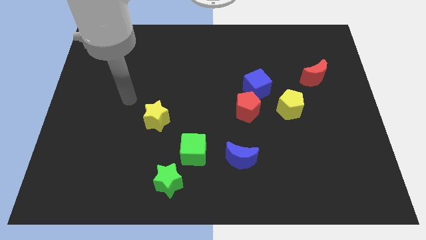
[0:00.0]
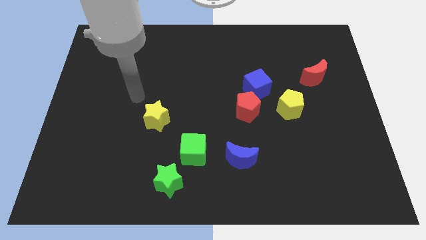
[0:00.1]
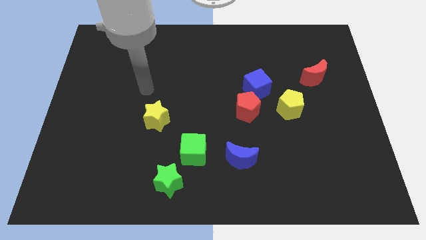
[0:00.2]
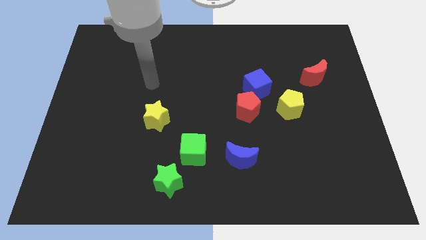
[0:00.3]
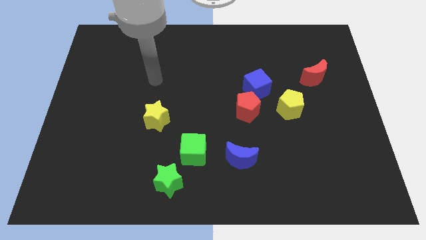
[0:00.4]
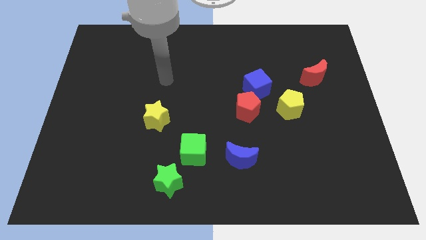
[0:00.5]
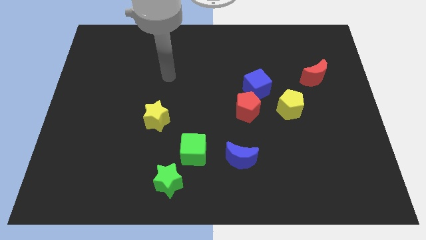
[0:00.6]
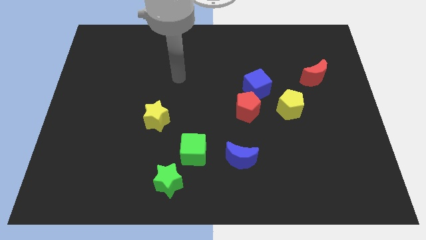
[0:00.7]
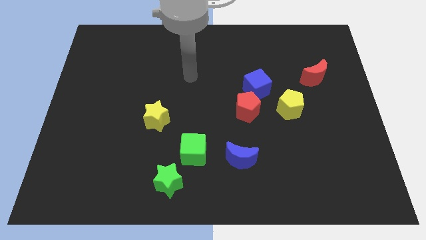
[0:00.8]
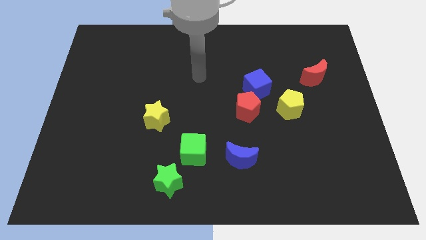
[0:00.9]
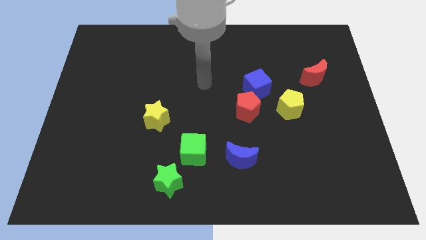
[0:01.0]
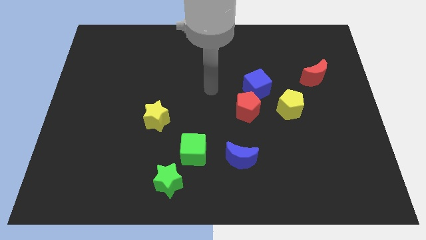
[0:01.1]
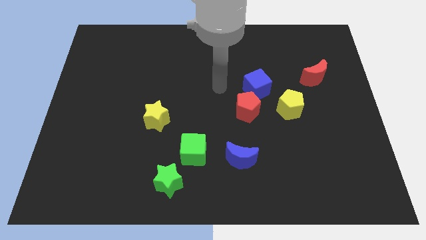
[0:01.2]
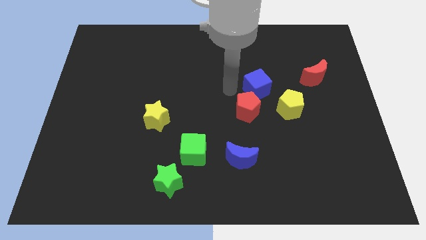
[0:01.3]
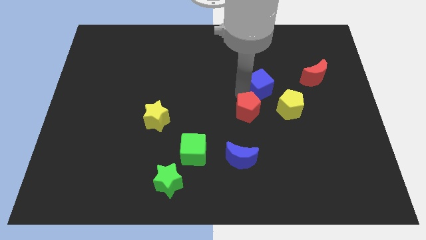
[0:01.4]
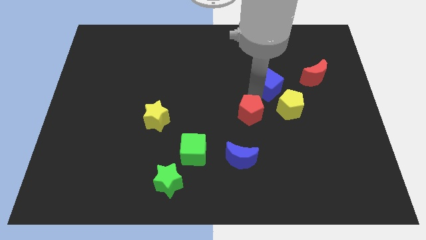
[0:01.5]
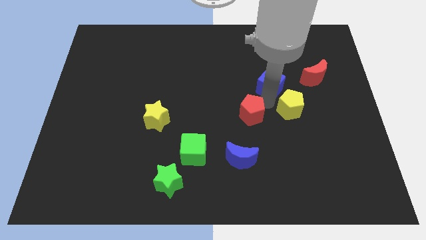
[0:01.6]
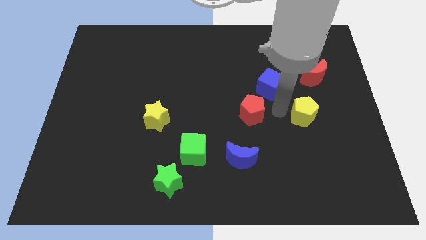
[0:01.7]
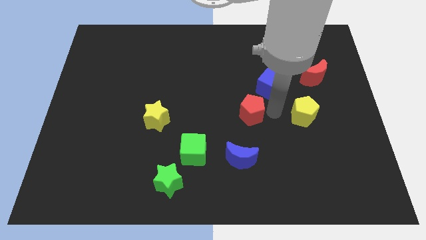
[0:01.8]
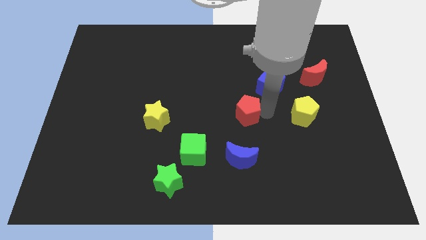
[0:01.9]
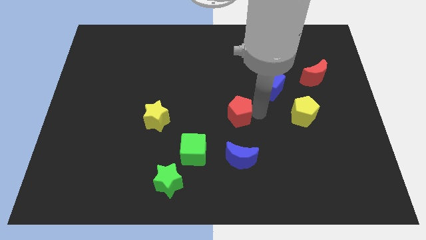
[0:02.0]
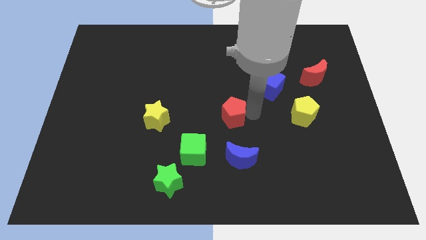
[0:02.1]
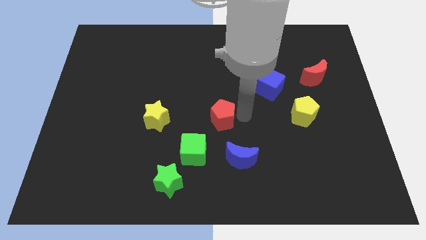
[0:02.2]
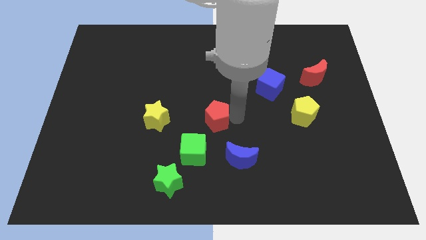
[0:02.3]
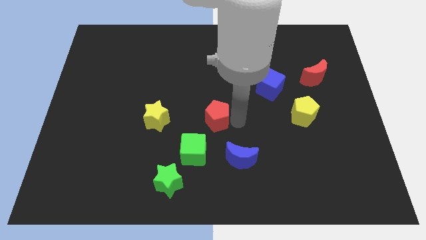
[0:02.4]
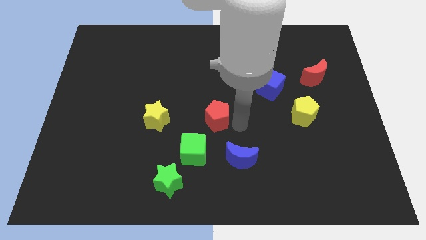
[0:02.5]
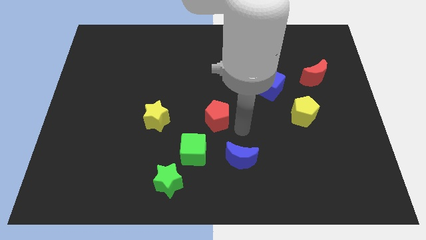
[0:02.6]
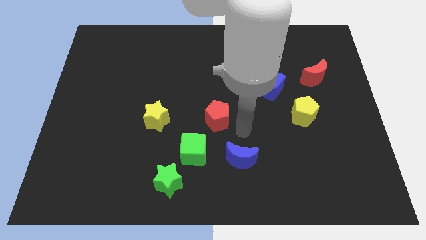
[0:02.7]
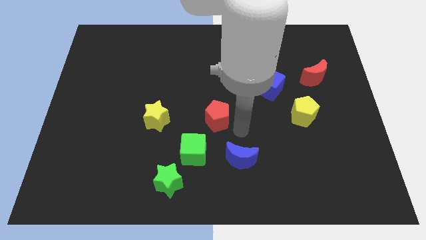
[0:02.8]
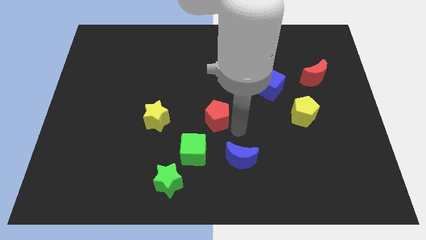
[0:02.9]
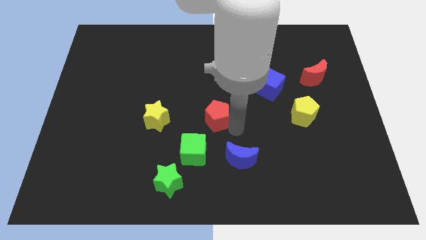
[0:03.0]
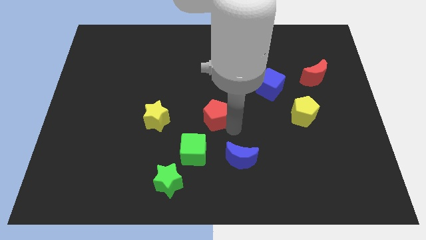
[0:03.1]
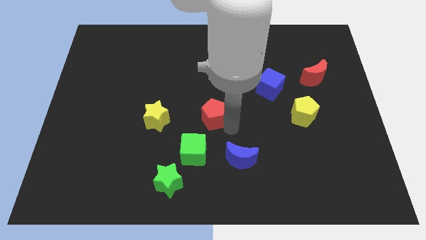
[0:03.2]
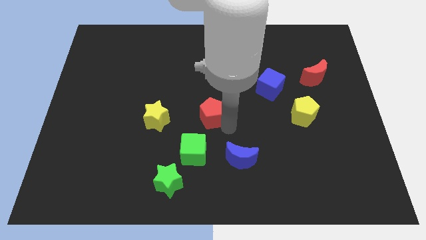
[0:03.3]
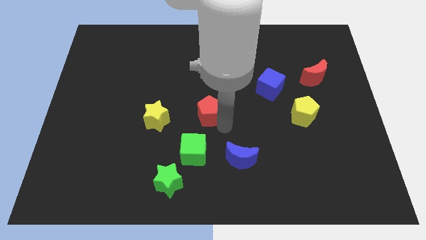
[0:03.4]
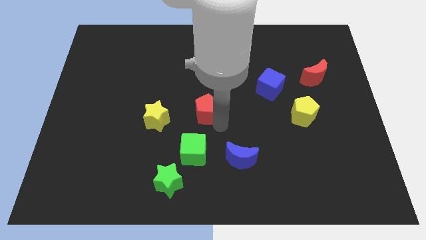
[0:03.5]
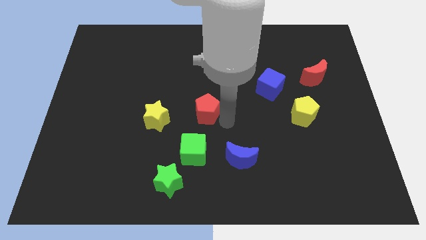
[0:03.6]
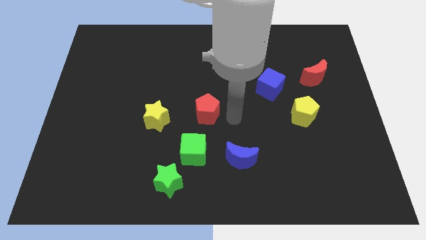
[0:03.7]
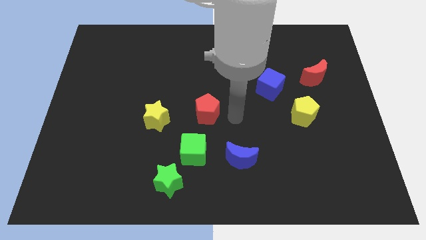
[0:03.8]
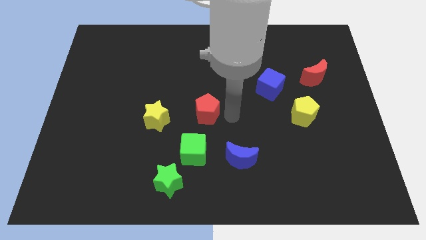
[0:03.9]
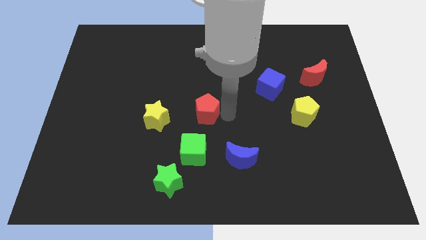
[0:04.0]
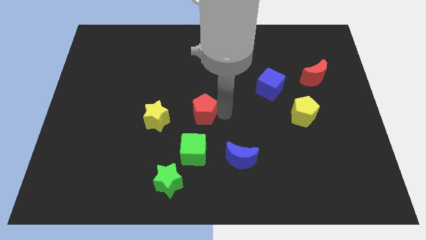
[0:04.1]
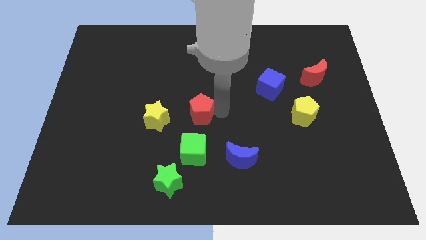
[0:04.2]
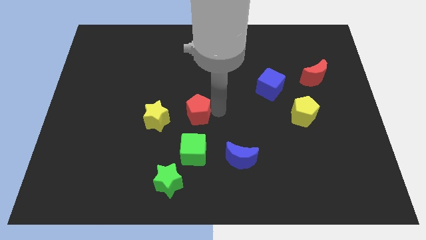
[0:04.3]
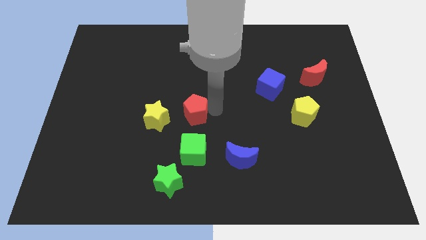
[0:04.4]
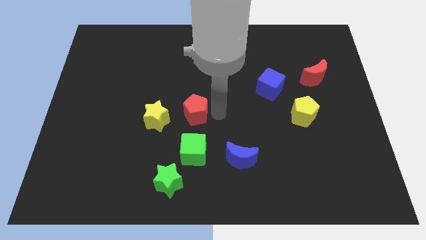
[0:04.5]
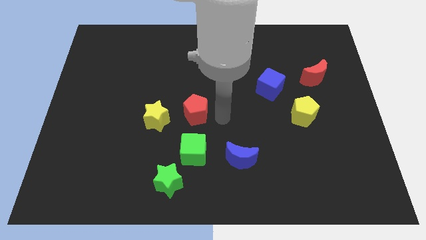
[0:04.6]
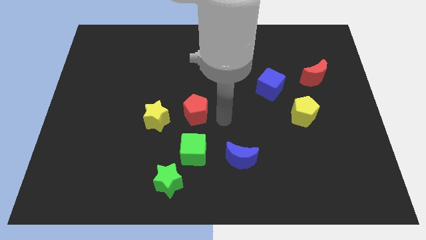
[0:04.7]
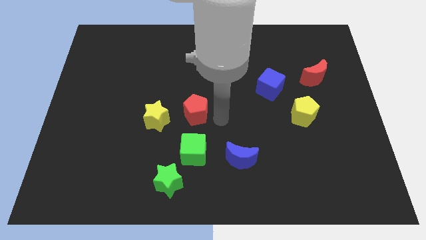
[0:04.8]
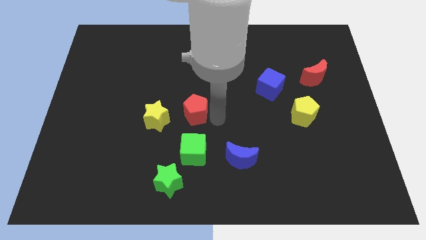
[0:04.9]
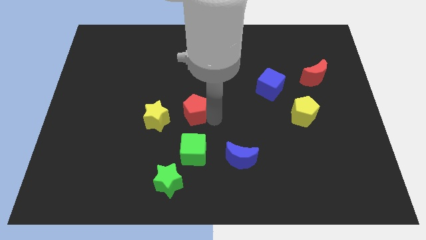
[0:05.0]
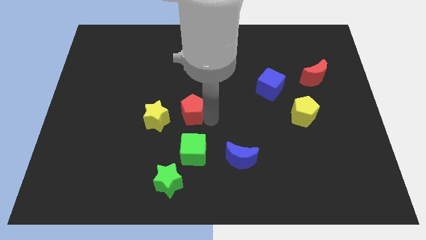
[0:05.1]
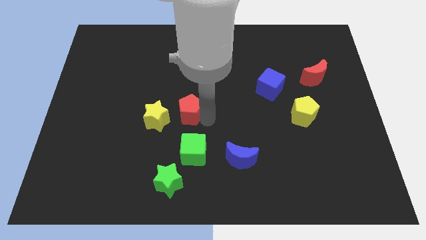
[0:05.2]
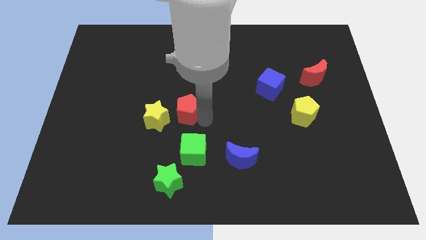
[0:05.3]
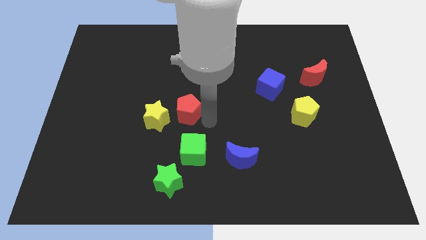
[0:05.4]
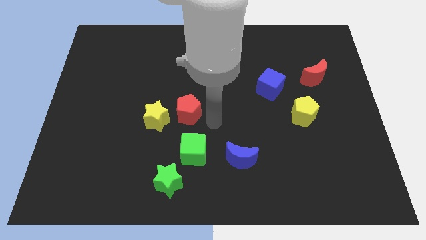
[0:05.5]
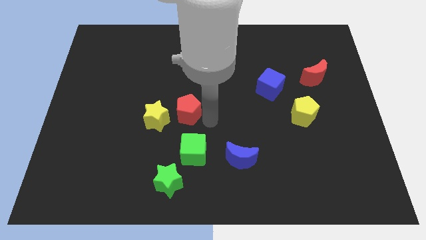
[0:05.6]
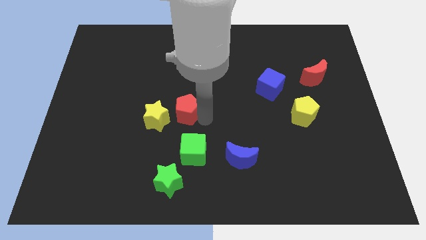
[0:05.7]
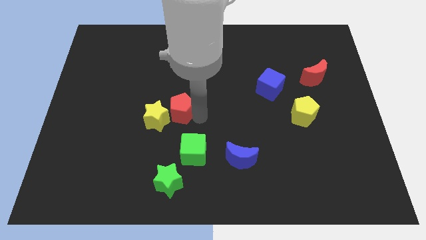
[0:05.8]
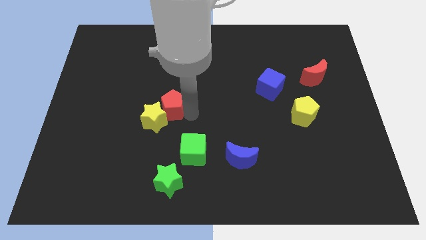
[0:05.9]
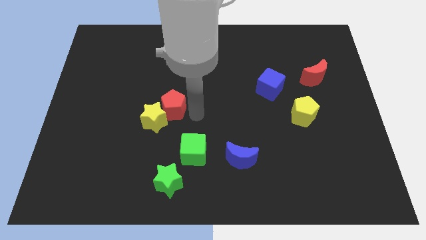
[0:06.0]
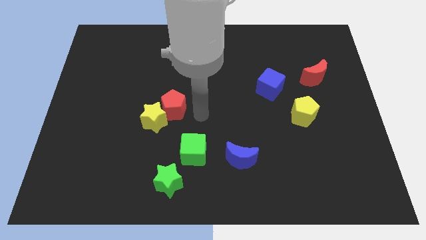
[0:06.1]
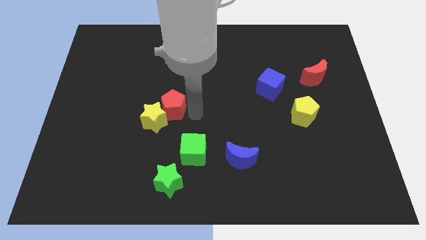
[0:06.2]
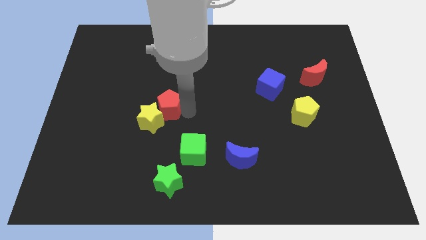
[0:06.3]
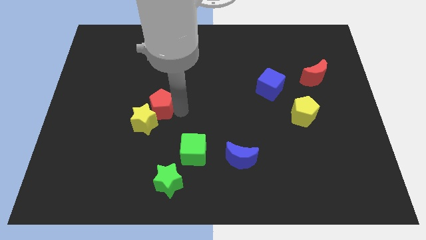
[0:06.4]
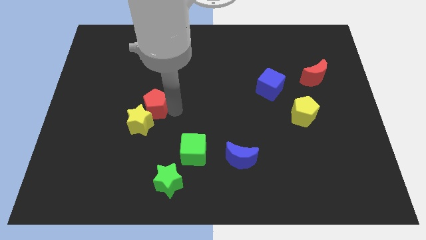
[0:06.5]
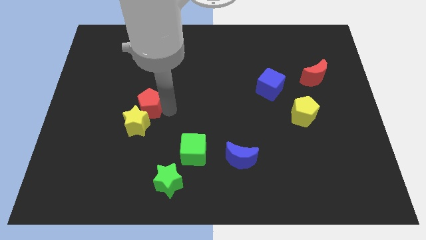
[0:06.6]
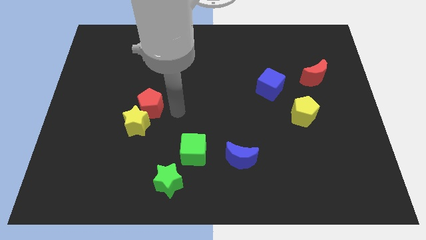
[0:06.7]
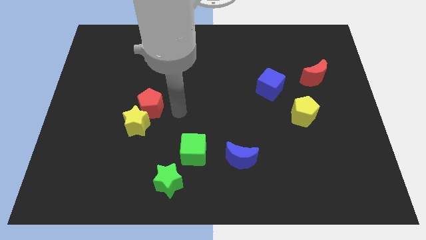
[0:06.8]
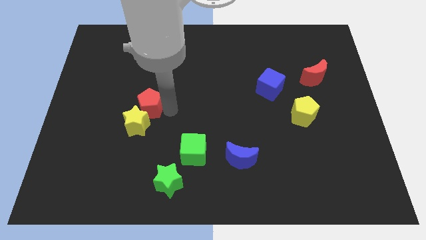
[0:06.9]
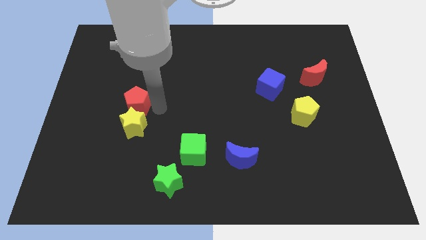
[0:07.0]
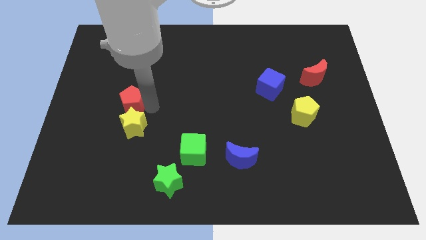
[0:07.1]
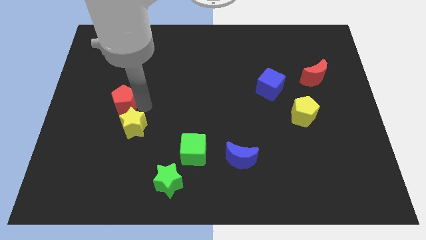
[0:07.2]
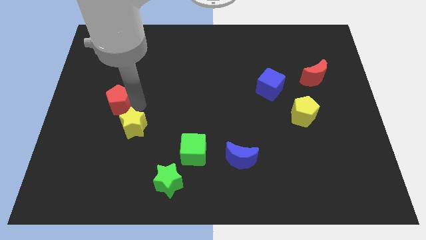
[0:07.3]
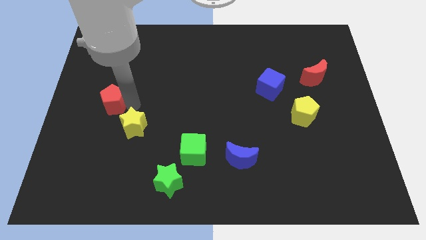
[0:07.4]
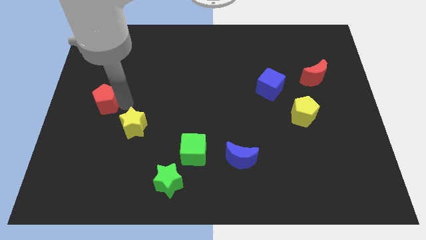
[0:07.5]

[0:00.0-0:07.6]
move the red pentagon to the left side
